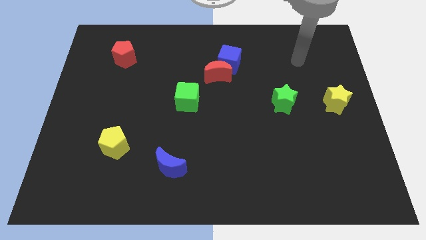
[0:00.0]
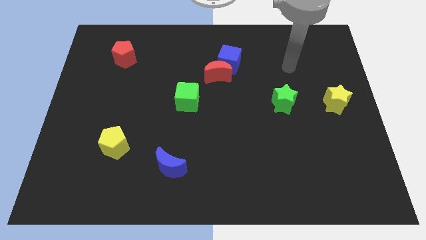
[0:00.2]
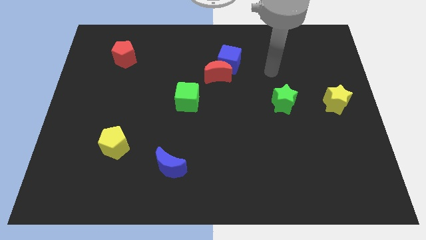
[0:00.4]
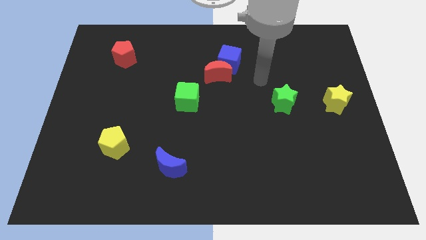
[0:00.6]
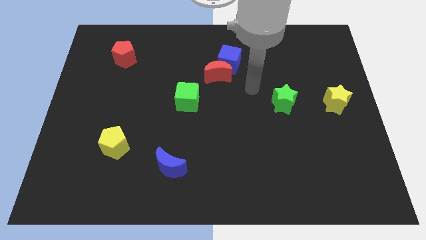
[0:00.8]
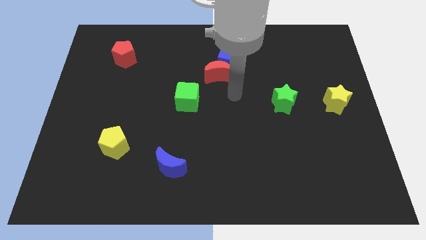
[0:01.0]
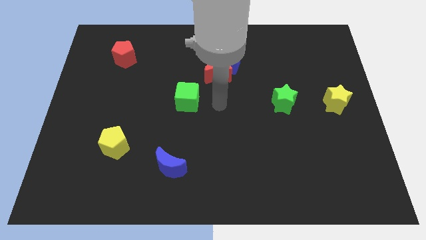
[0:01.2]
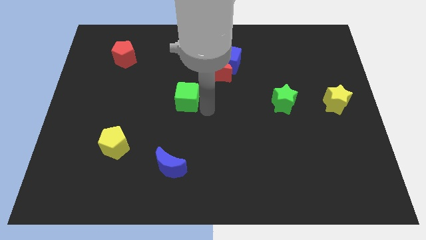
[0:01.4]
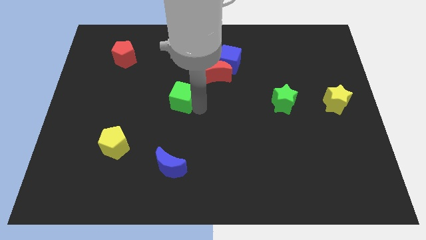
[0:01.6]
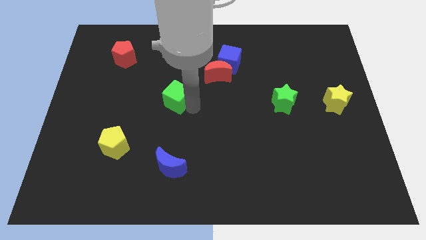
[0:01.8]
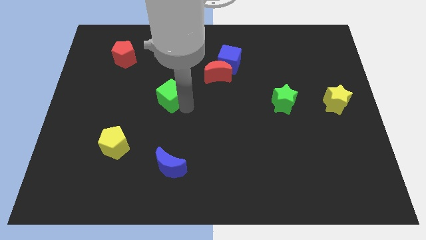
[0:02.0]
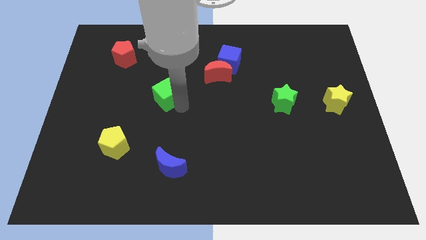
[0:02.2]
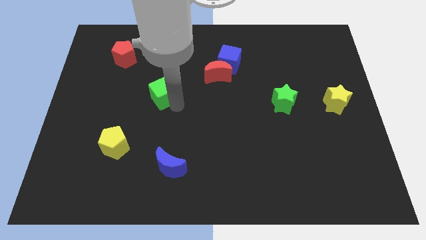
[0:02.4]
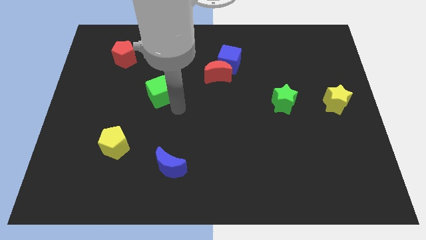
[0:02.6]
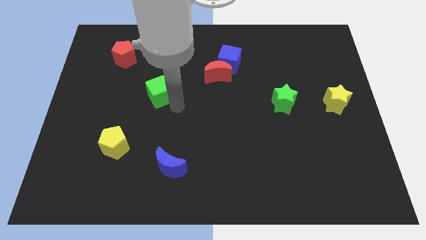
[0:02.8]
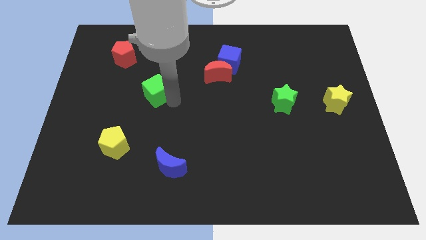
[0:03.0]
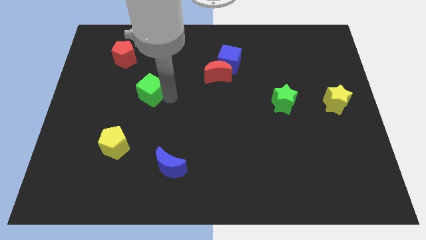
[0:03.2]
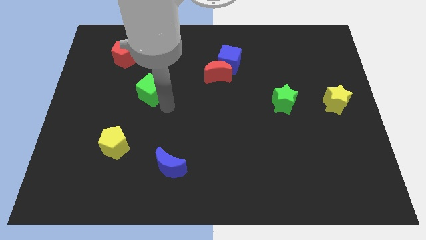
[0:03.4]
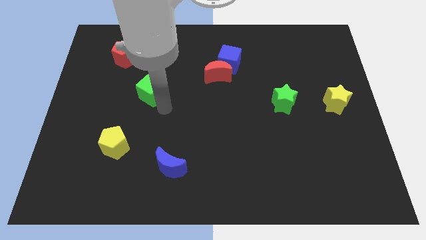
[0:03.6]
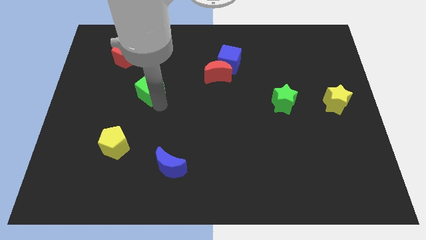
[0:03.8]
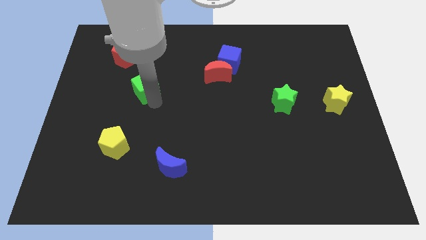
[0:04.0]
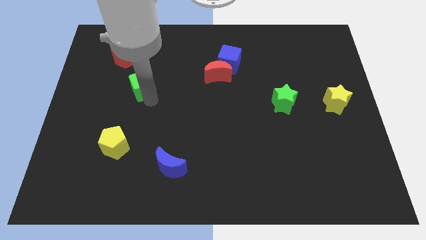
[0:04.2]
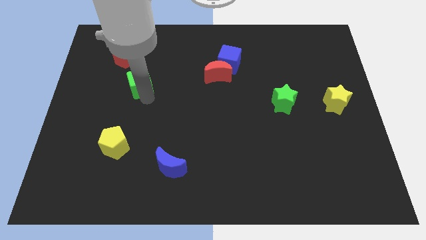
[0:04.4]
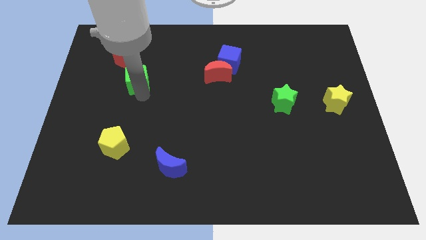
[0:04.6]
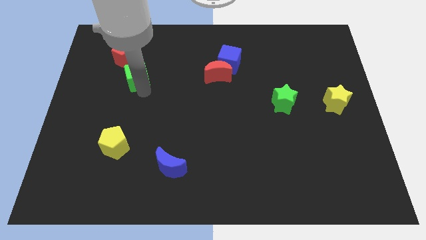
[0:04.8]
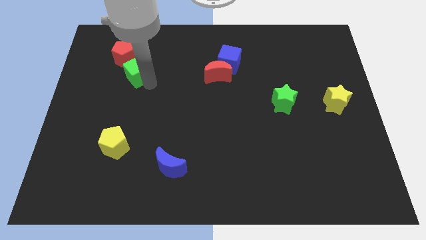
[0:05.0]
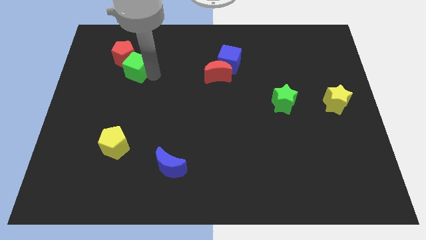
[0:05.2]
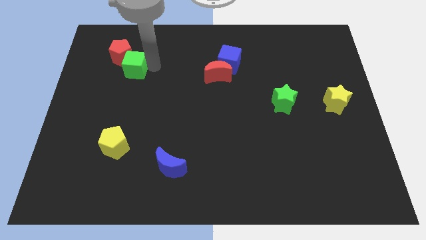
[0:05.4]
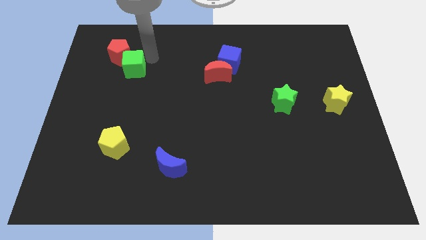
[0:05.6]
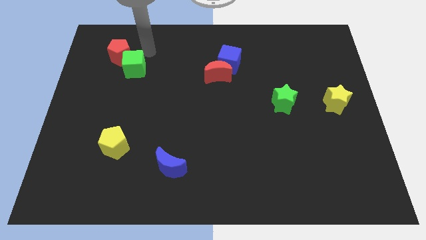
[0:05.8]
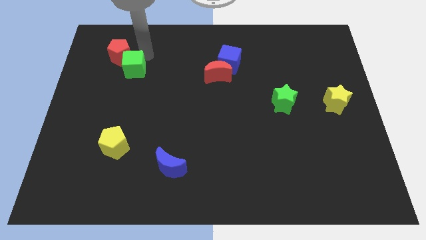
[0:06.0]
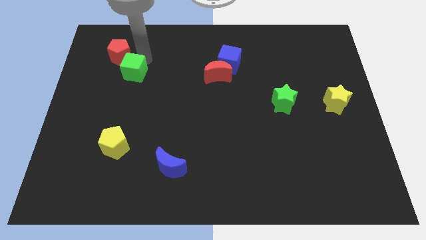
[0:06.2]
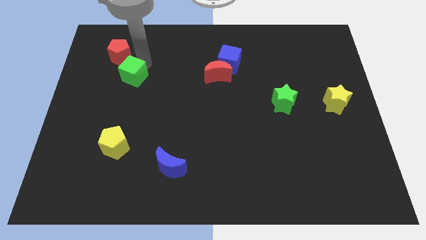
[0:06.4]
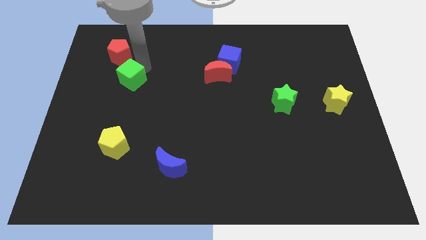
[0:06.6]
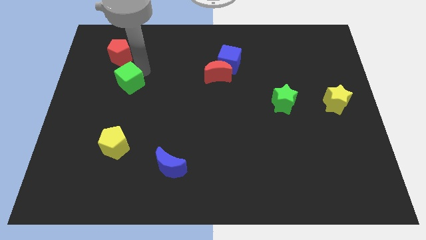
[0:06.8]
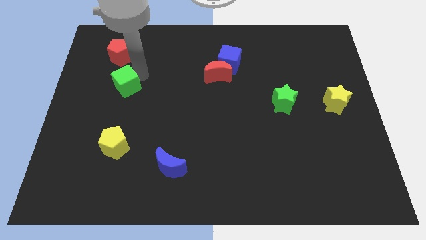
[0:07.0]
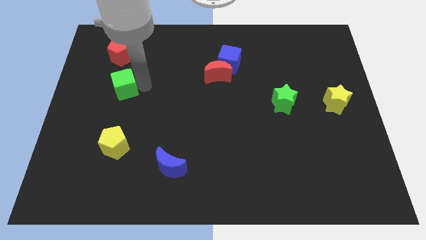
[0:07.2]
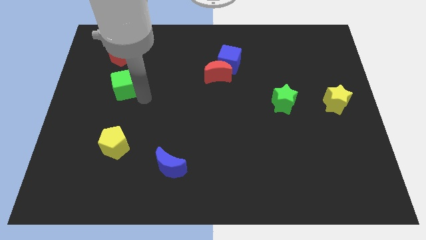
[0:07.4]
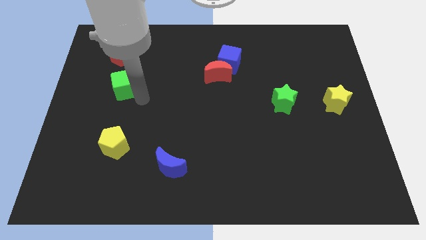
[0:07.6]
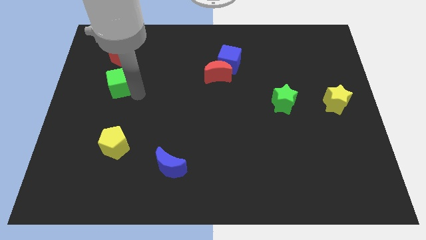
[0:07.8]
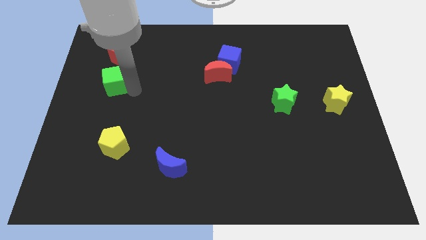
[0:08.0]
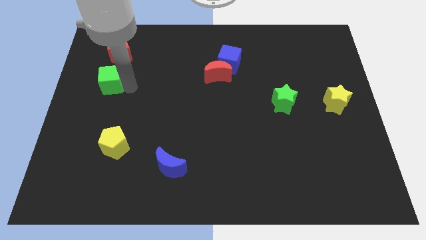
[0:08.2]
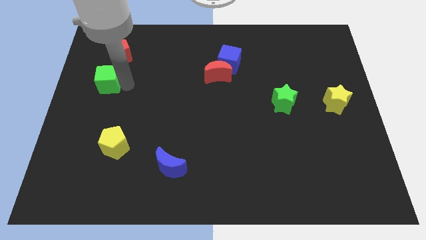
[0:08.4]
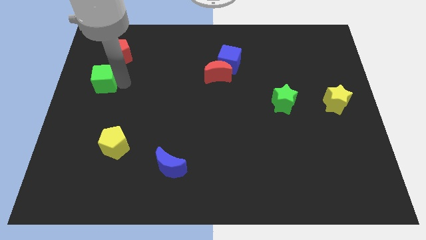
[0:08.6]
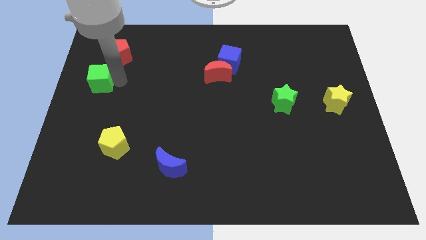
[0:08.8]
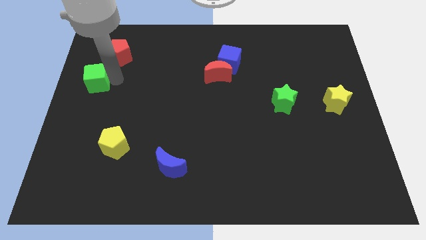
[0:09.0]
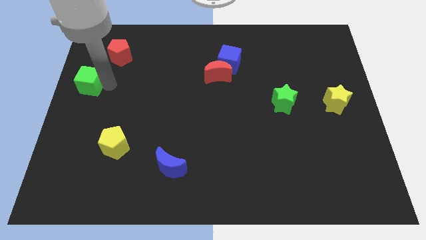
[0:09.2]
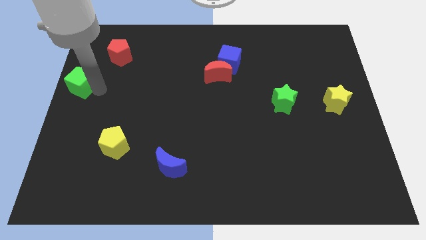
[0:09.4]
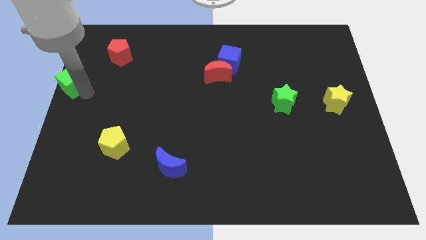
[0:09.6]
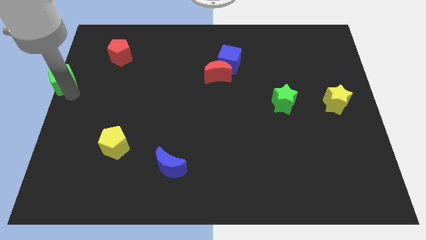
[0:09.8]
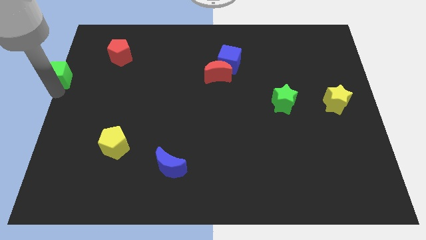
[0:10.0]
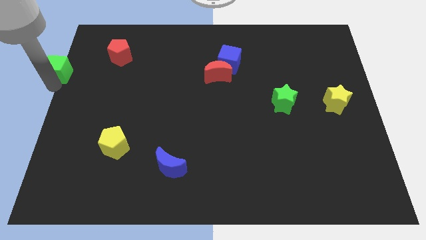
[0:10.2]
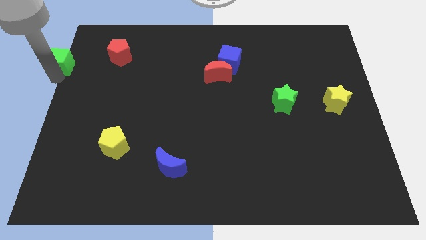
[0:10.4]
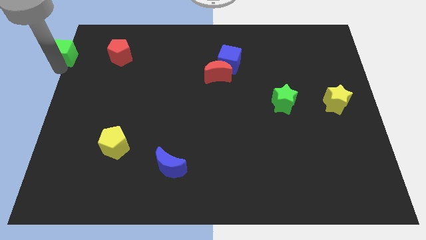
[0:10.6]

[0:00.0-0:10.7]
move the green cube to the upper left corner

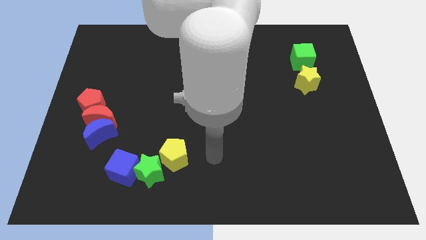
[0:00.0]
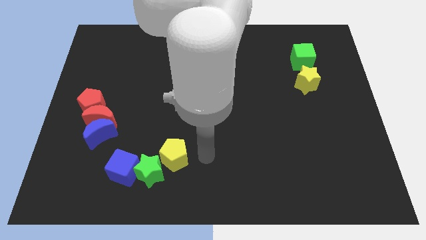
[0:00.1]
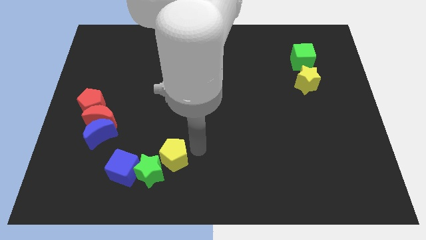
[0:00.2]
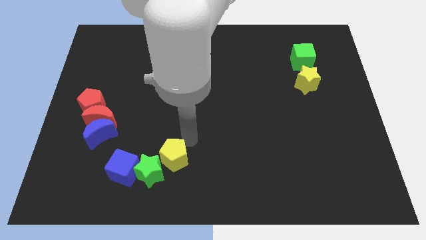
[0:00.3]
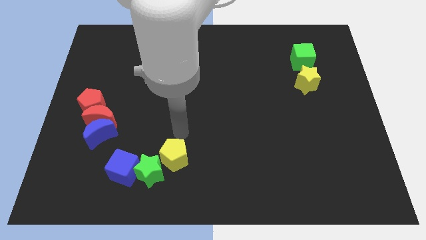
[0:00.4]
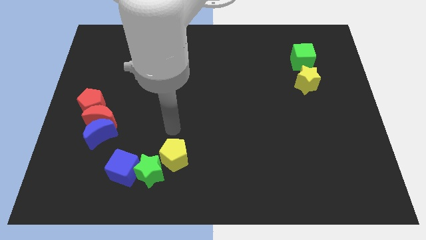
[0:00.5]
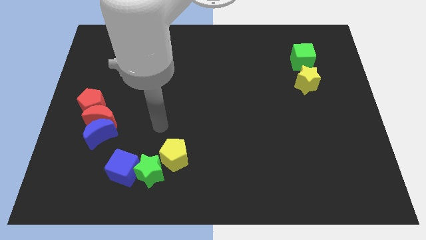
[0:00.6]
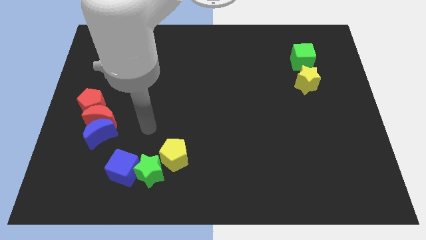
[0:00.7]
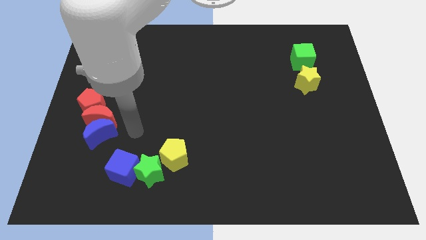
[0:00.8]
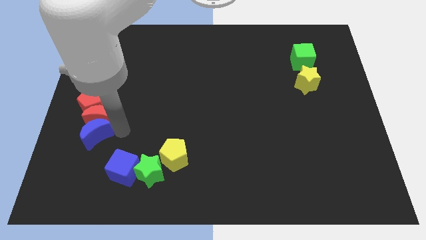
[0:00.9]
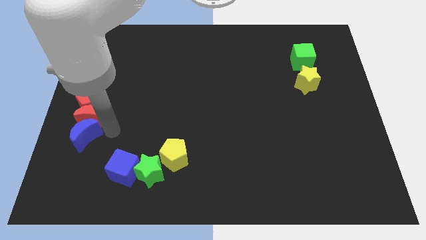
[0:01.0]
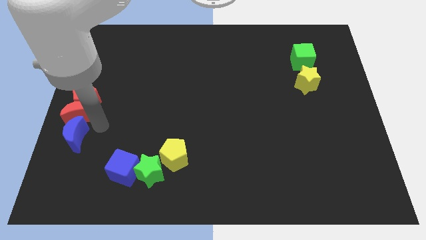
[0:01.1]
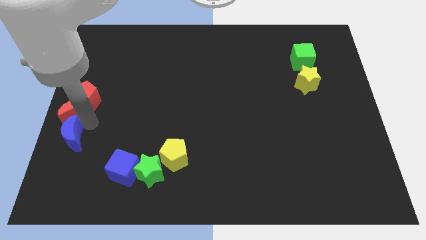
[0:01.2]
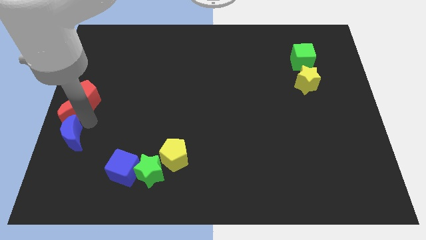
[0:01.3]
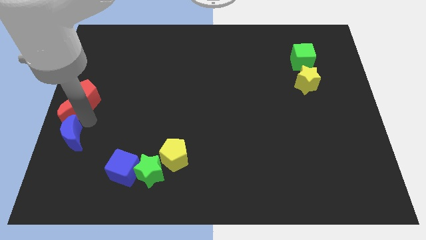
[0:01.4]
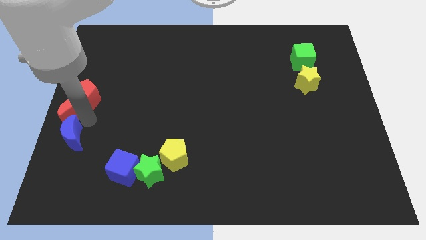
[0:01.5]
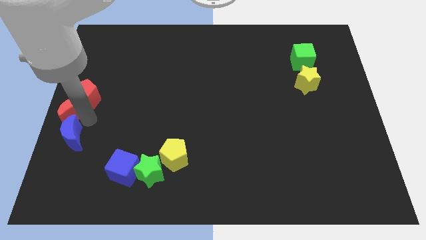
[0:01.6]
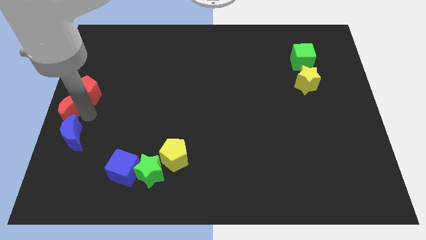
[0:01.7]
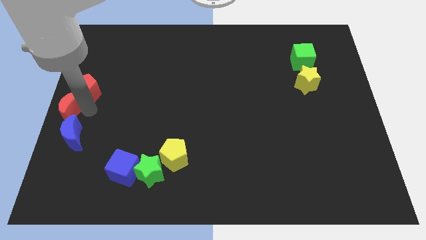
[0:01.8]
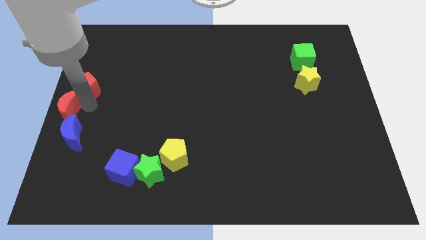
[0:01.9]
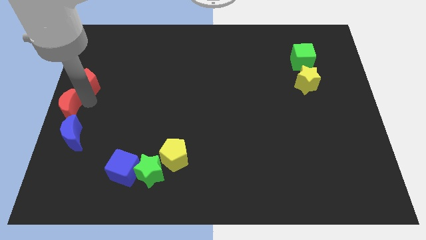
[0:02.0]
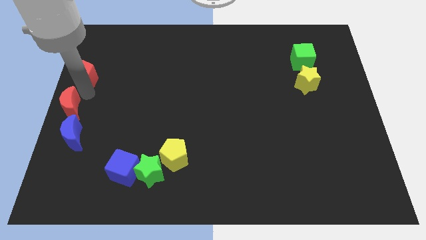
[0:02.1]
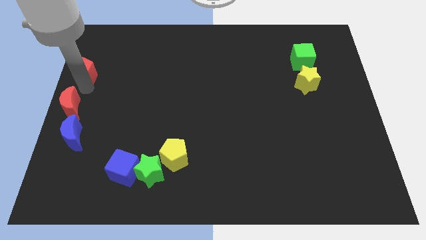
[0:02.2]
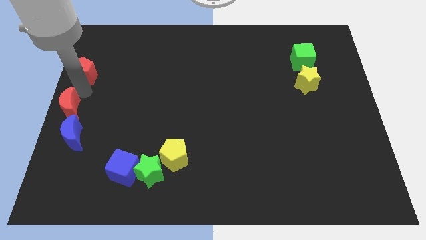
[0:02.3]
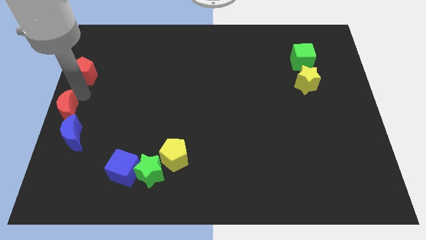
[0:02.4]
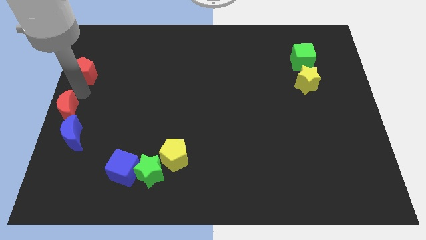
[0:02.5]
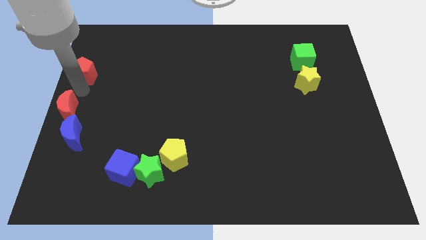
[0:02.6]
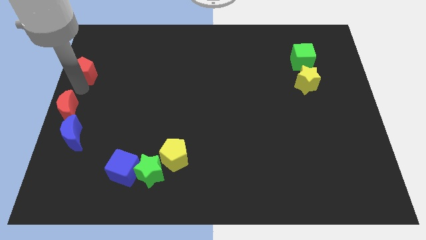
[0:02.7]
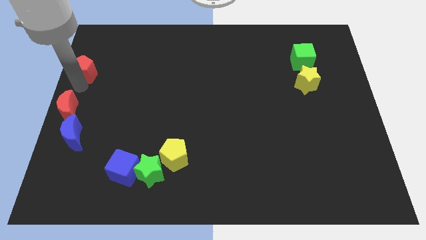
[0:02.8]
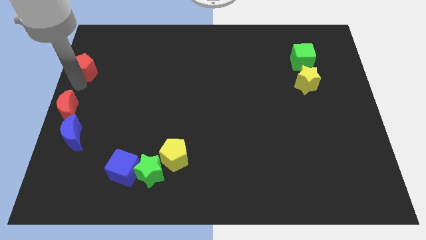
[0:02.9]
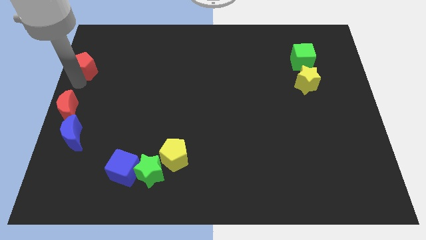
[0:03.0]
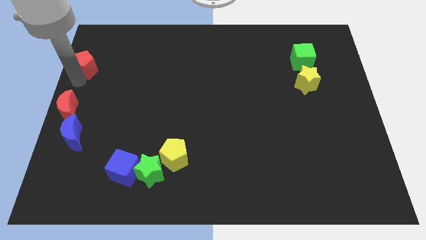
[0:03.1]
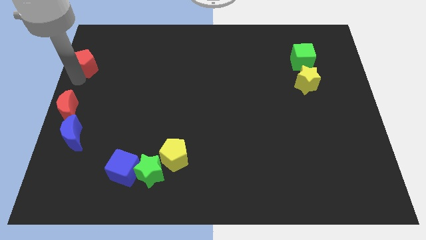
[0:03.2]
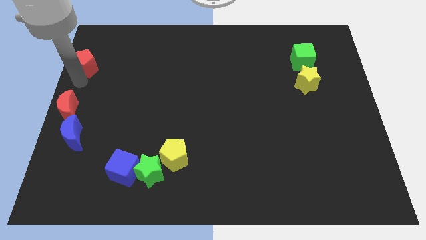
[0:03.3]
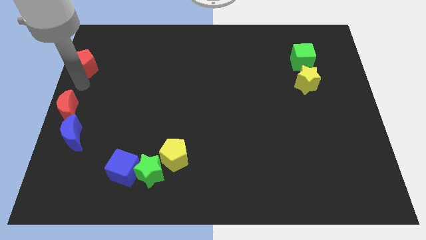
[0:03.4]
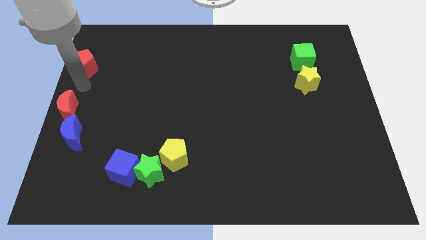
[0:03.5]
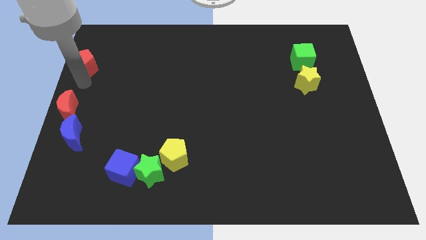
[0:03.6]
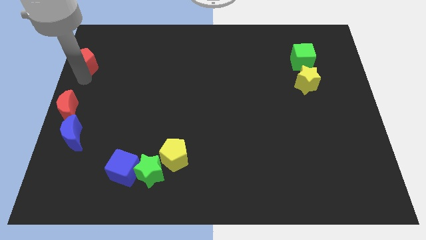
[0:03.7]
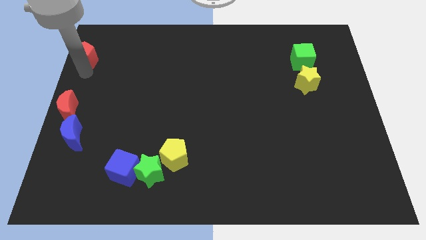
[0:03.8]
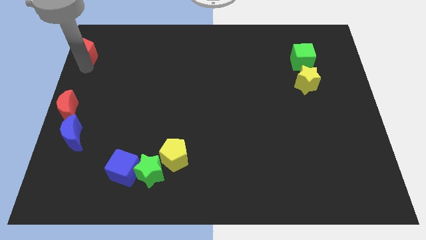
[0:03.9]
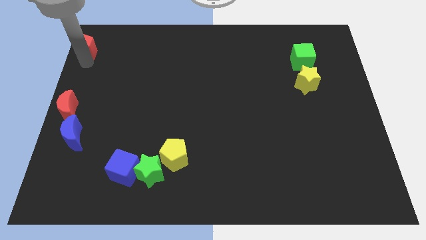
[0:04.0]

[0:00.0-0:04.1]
move the red pentagon to the top left
